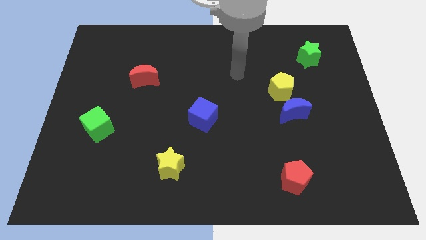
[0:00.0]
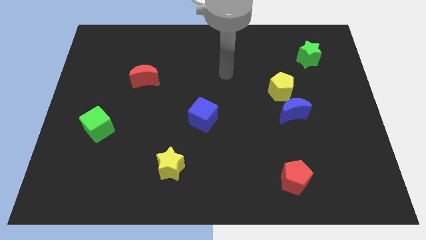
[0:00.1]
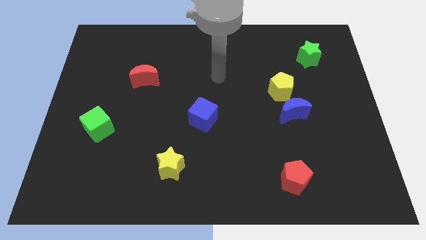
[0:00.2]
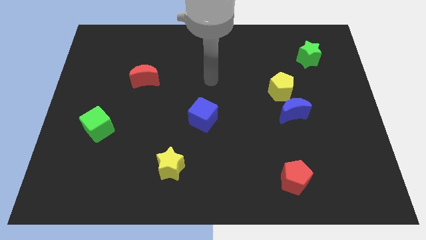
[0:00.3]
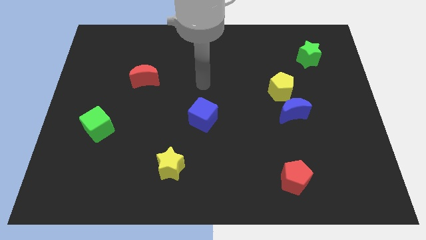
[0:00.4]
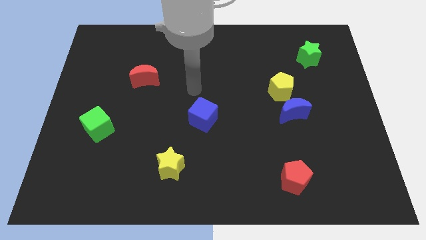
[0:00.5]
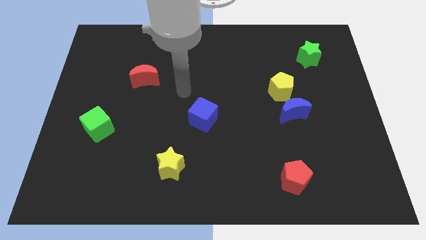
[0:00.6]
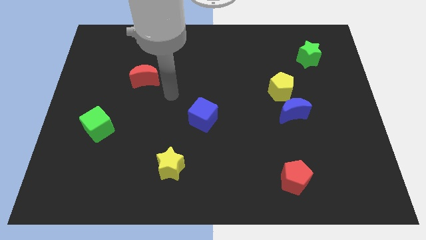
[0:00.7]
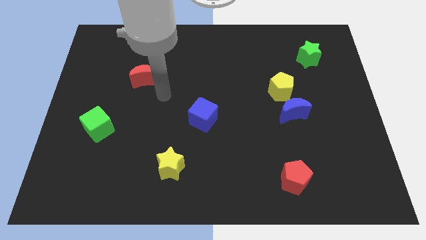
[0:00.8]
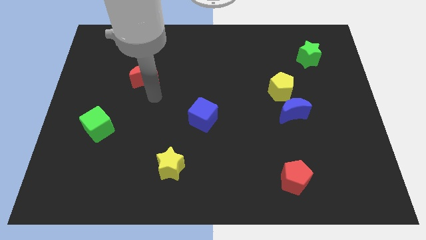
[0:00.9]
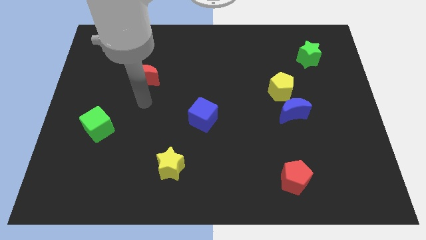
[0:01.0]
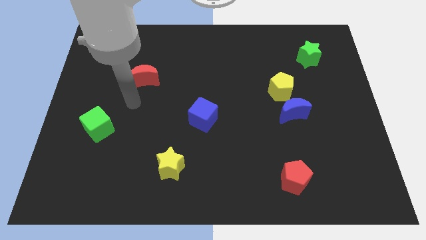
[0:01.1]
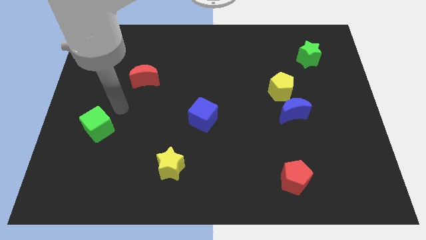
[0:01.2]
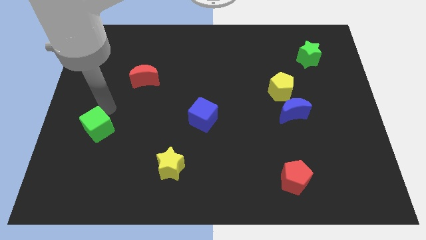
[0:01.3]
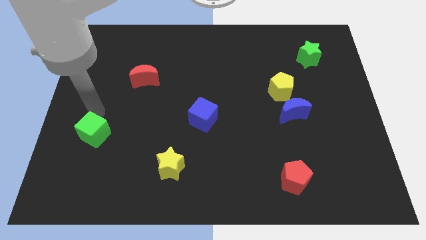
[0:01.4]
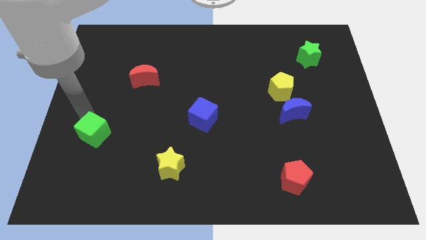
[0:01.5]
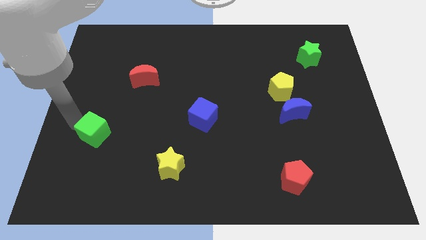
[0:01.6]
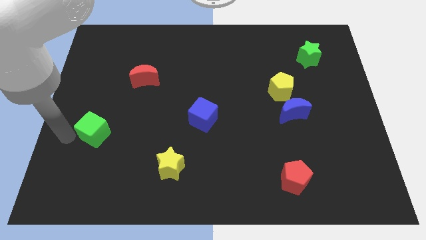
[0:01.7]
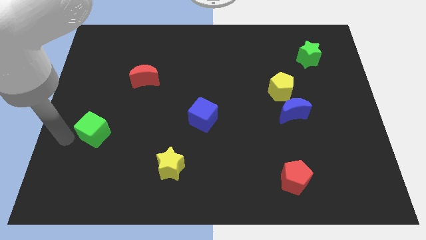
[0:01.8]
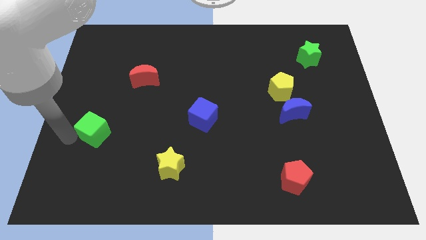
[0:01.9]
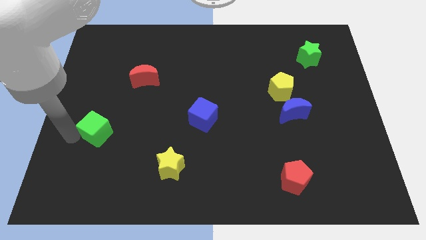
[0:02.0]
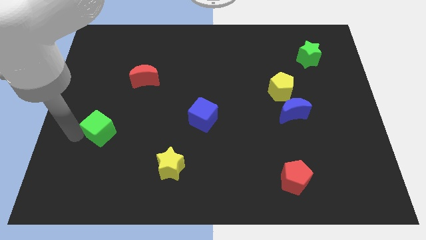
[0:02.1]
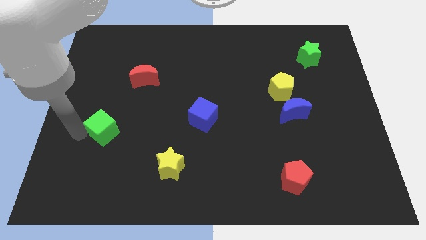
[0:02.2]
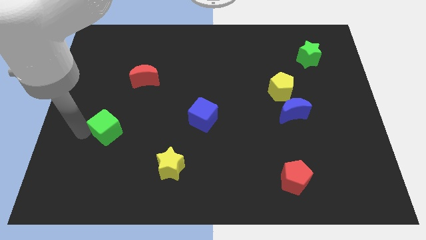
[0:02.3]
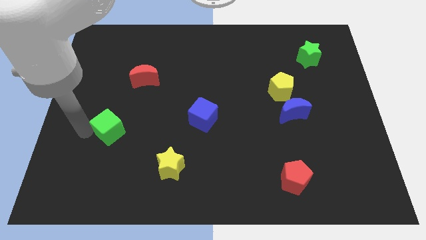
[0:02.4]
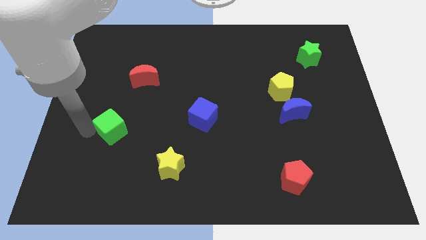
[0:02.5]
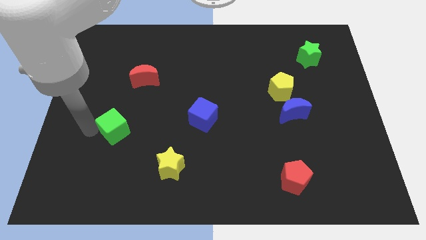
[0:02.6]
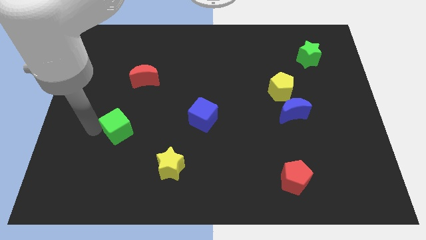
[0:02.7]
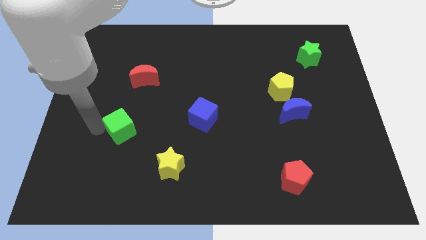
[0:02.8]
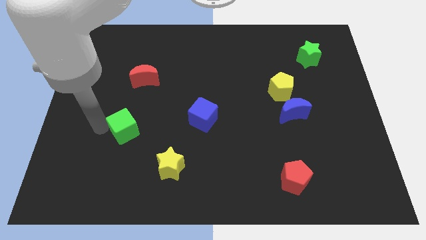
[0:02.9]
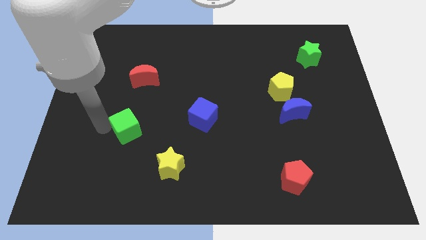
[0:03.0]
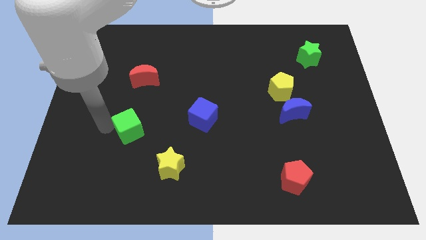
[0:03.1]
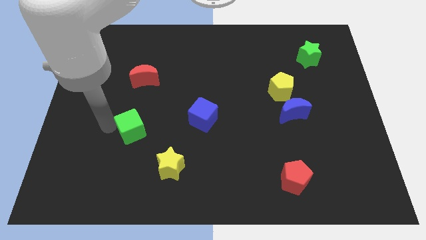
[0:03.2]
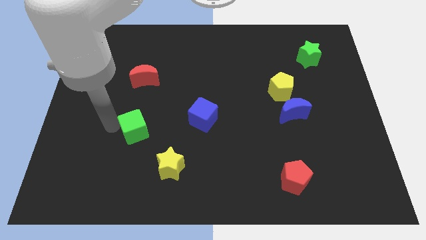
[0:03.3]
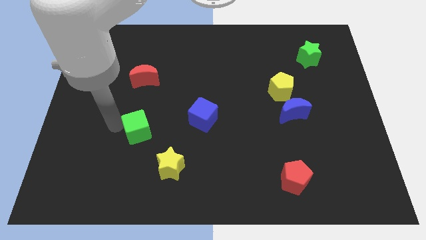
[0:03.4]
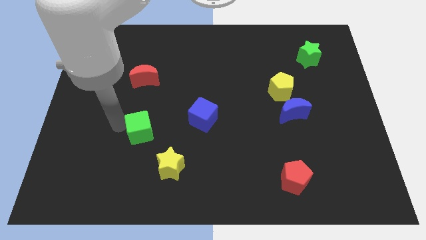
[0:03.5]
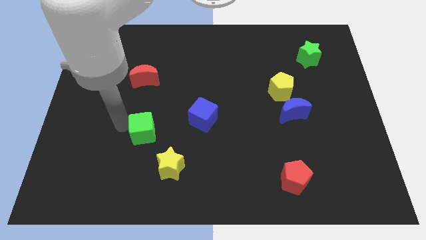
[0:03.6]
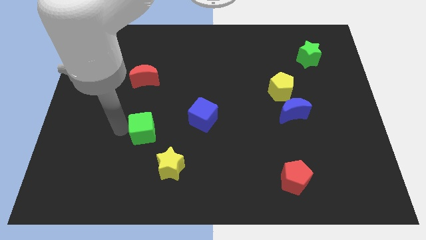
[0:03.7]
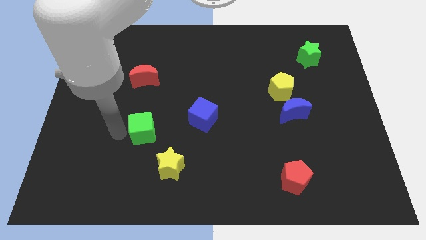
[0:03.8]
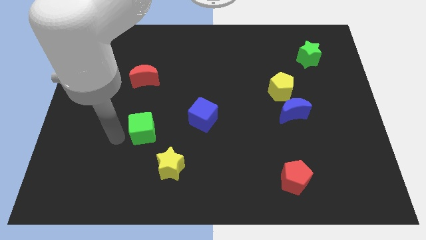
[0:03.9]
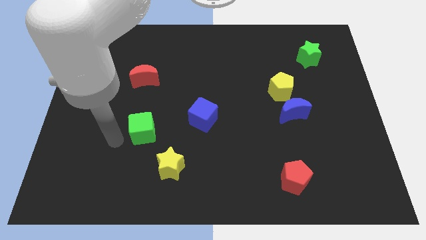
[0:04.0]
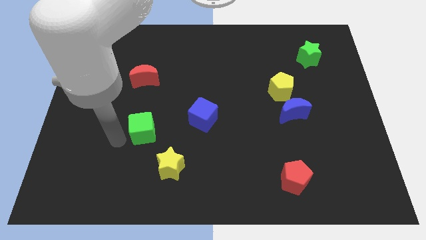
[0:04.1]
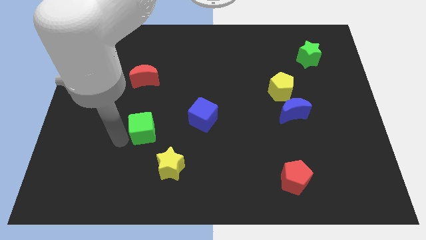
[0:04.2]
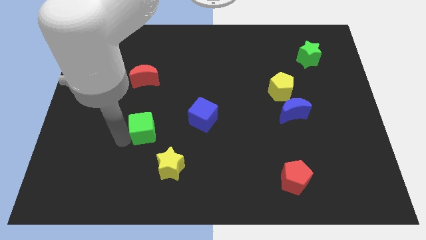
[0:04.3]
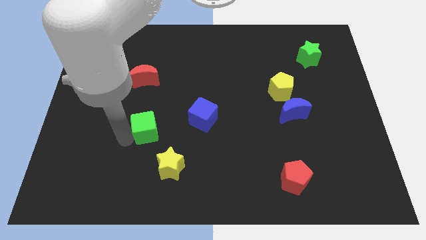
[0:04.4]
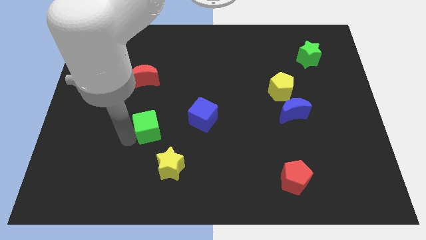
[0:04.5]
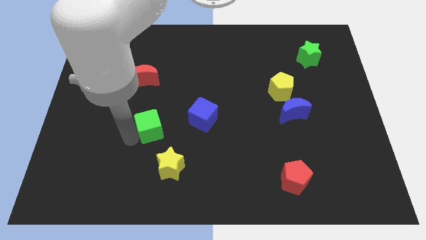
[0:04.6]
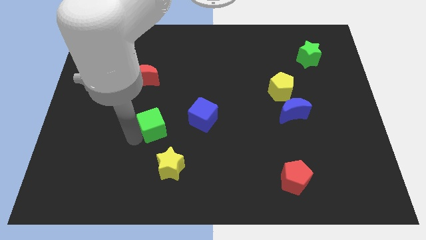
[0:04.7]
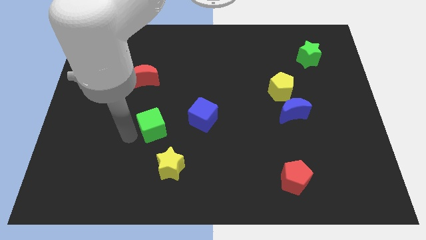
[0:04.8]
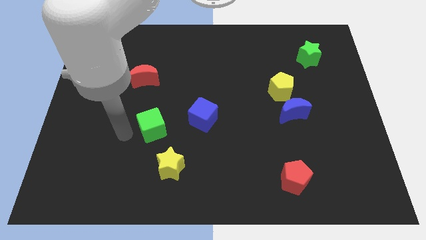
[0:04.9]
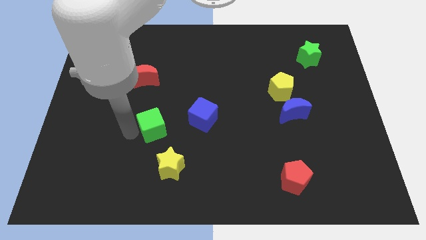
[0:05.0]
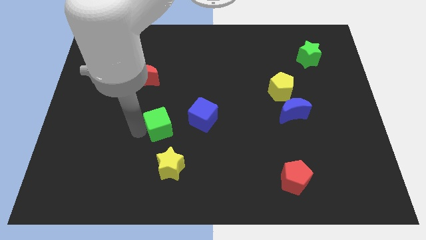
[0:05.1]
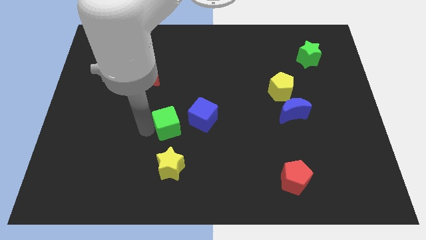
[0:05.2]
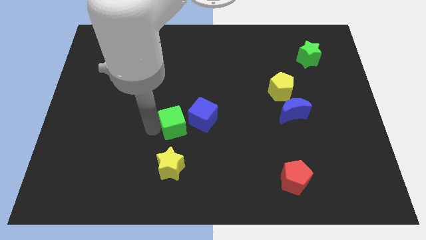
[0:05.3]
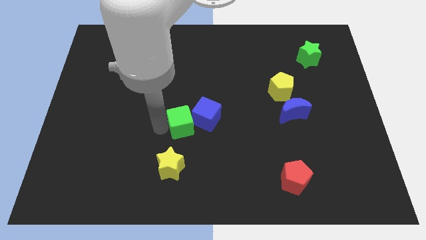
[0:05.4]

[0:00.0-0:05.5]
slide the green cube towards the blue cube

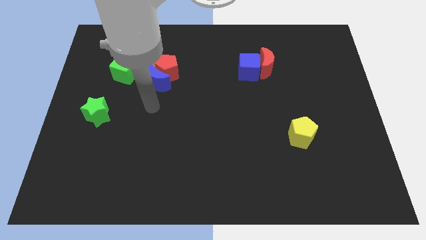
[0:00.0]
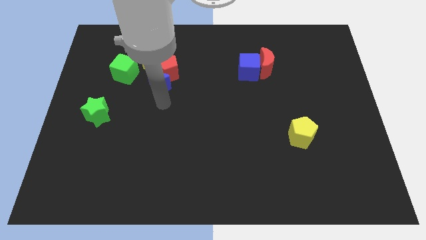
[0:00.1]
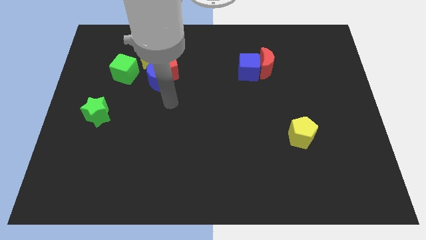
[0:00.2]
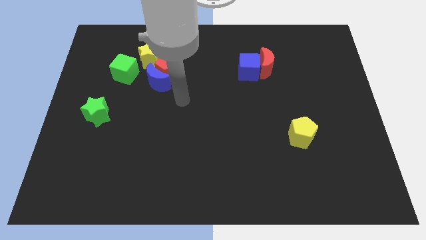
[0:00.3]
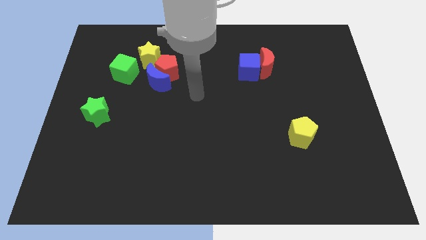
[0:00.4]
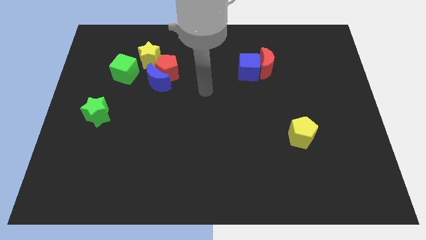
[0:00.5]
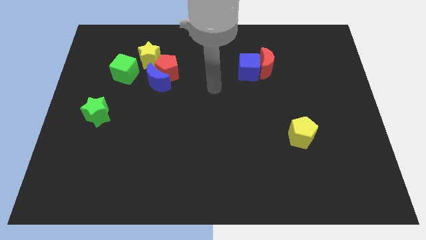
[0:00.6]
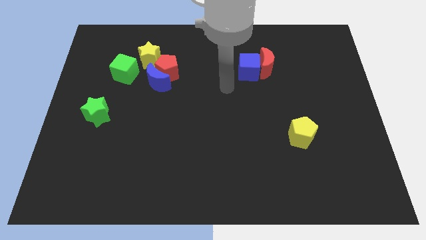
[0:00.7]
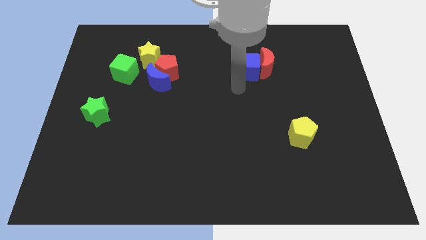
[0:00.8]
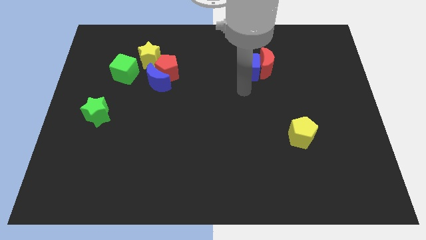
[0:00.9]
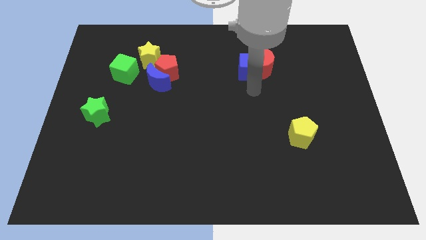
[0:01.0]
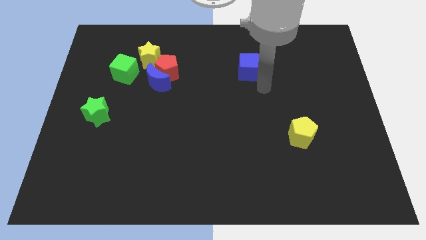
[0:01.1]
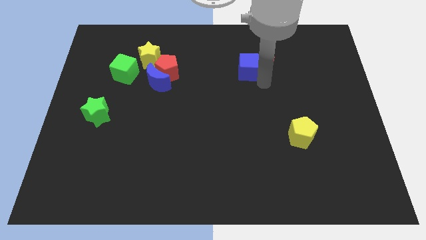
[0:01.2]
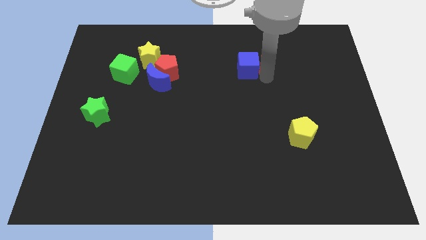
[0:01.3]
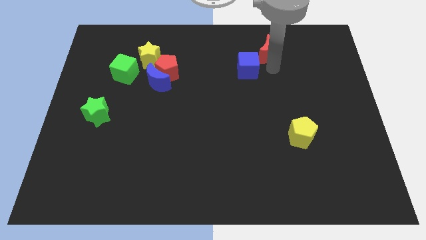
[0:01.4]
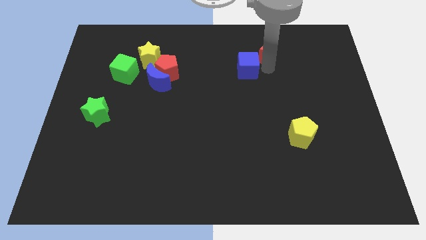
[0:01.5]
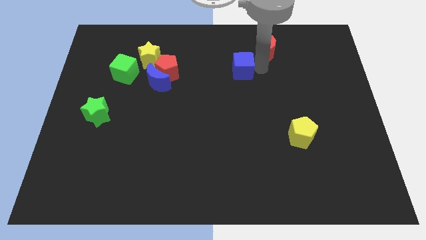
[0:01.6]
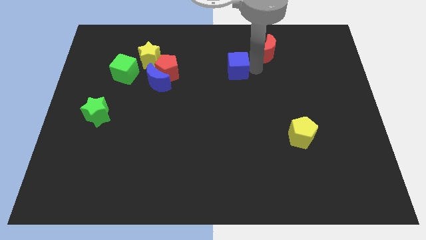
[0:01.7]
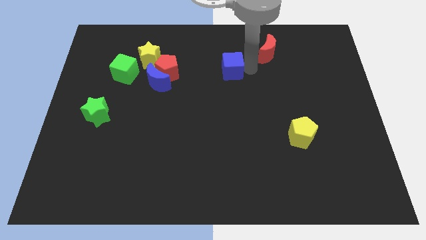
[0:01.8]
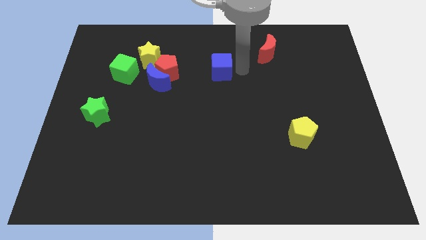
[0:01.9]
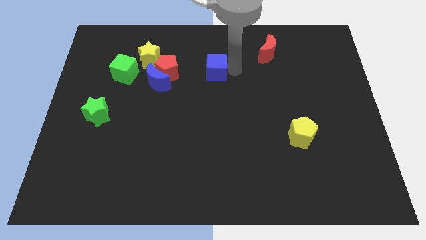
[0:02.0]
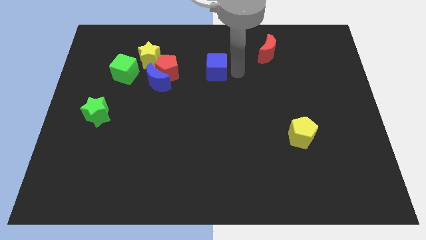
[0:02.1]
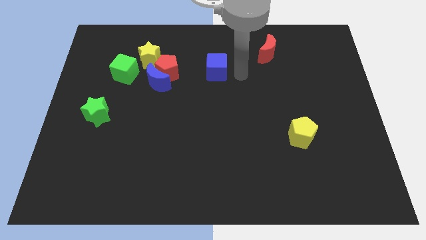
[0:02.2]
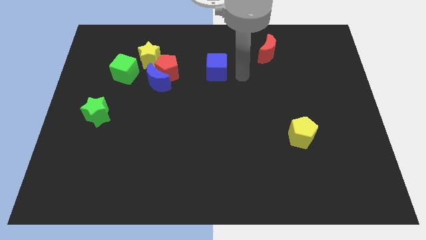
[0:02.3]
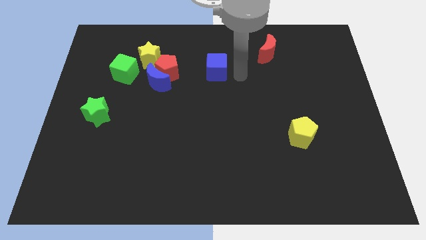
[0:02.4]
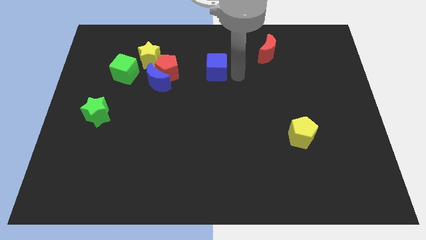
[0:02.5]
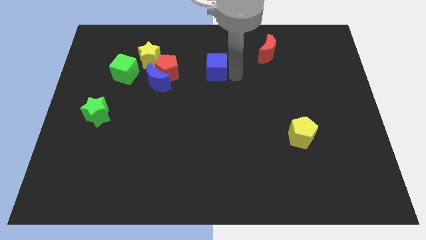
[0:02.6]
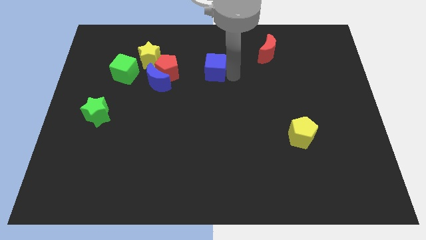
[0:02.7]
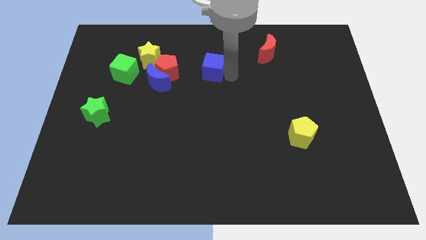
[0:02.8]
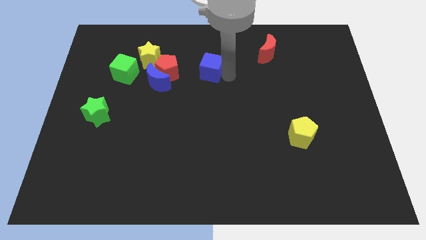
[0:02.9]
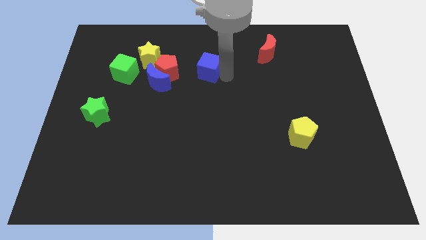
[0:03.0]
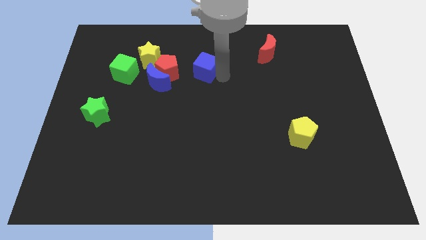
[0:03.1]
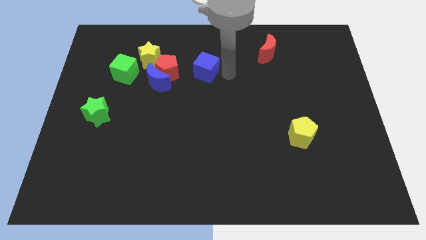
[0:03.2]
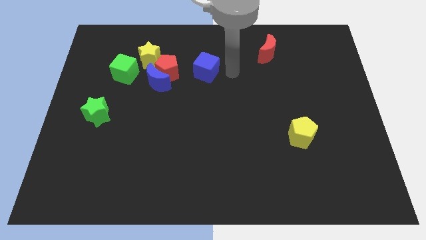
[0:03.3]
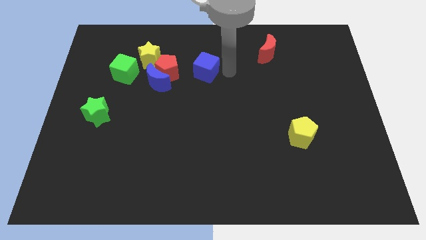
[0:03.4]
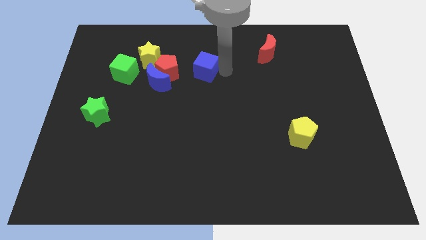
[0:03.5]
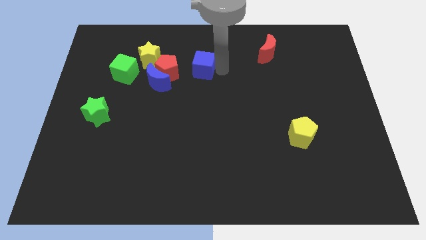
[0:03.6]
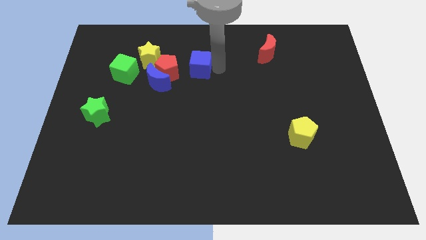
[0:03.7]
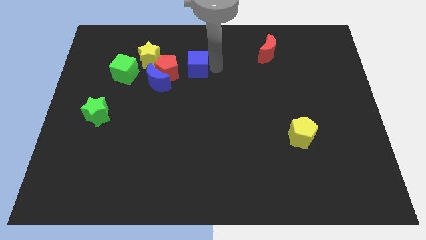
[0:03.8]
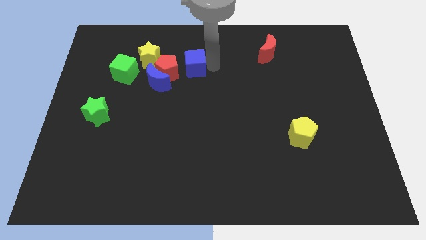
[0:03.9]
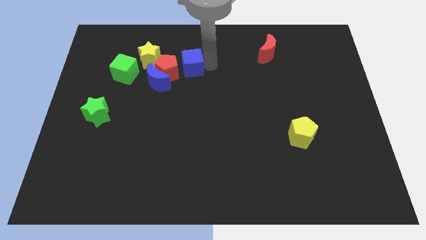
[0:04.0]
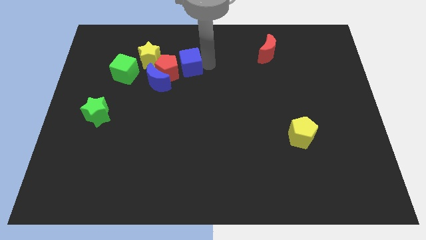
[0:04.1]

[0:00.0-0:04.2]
put the blue cube towards the red pentagon
